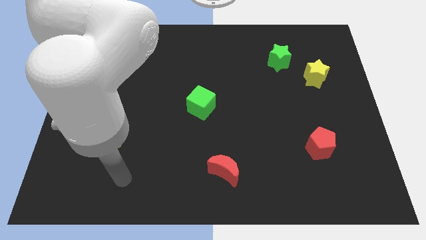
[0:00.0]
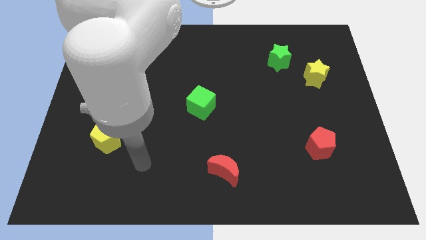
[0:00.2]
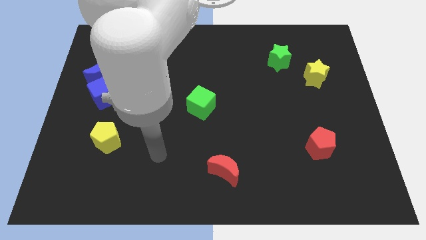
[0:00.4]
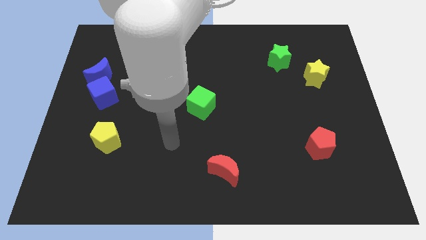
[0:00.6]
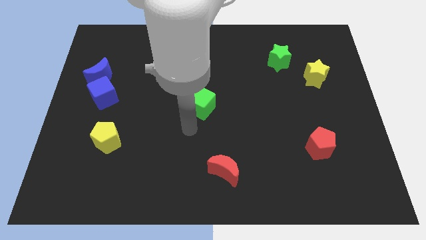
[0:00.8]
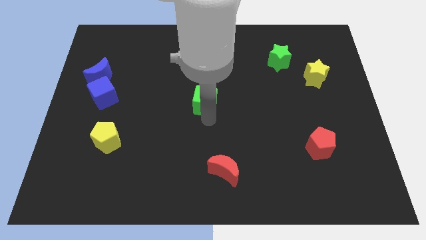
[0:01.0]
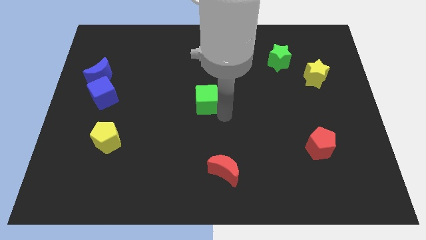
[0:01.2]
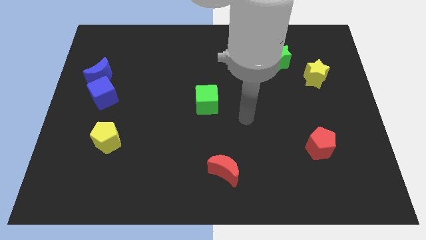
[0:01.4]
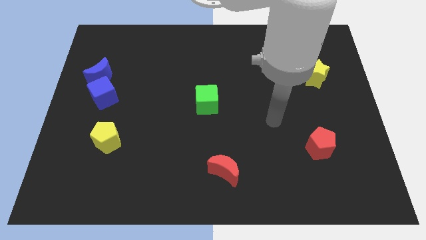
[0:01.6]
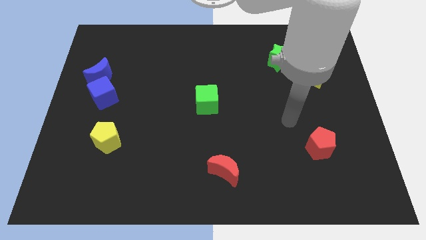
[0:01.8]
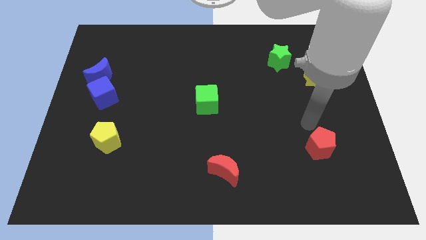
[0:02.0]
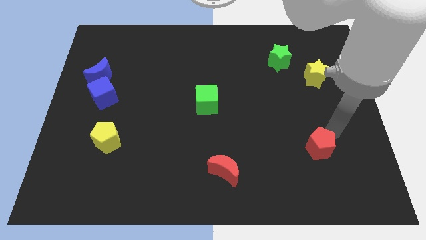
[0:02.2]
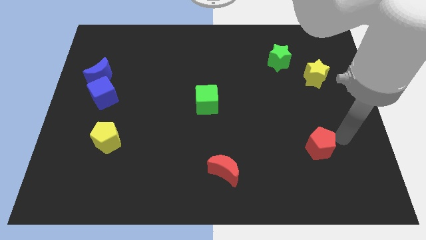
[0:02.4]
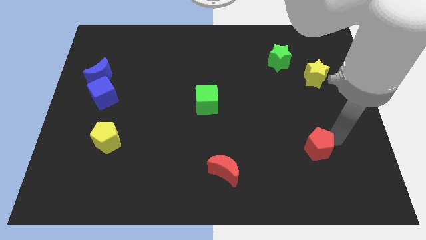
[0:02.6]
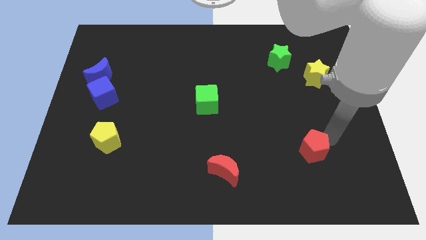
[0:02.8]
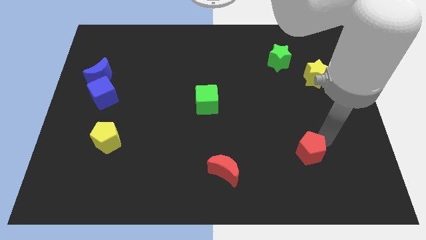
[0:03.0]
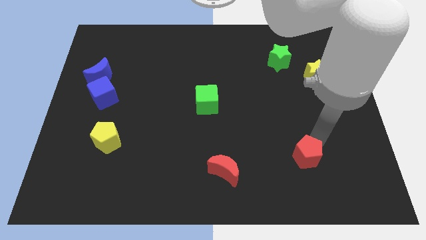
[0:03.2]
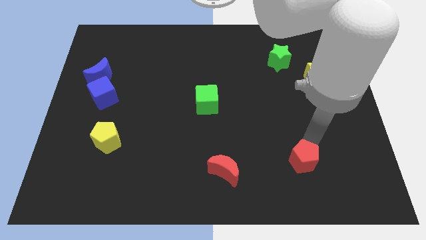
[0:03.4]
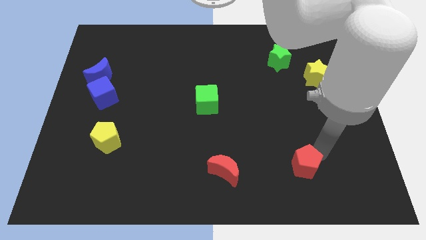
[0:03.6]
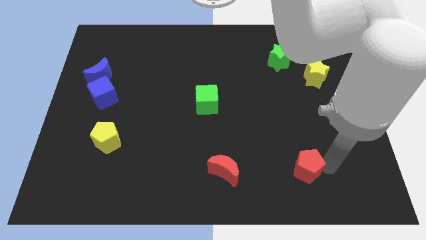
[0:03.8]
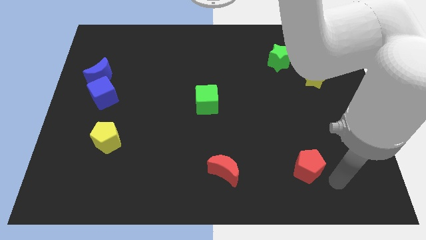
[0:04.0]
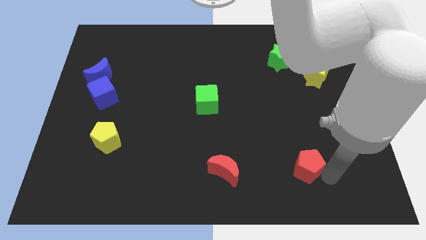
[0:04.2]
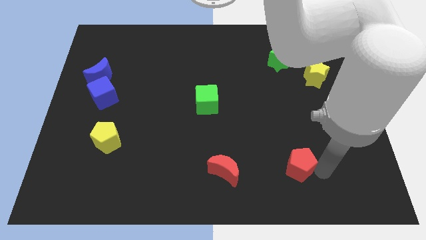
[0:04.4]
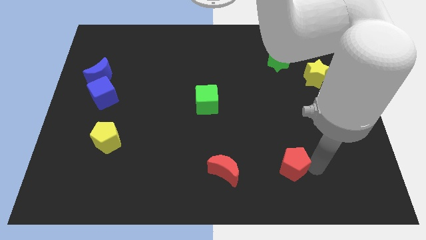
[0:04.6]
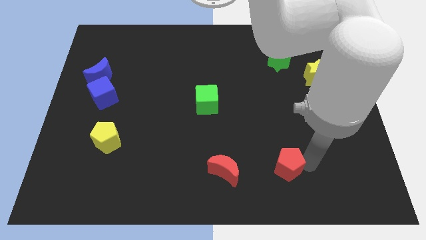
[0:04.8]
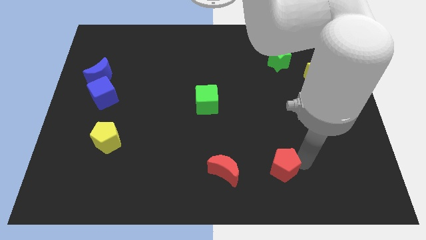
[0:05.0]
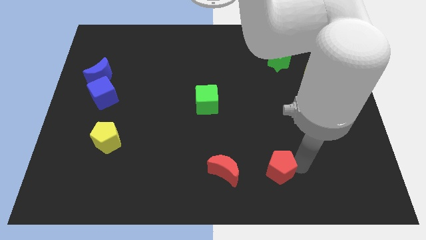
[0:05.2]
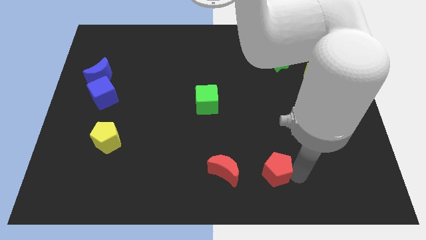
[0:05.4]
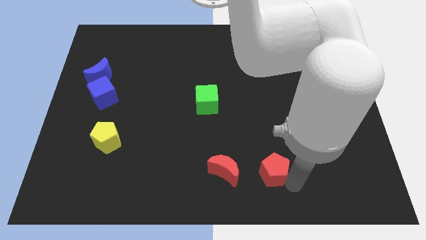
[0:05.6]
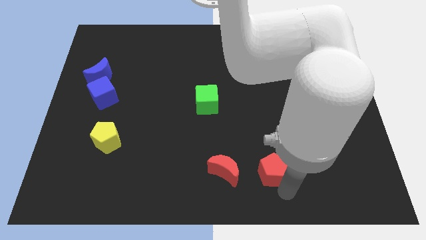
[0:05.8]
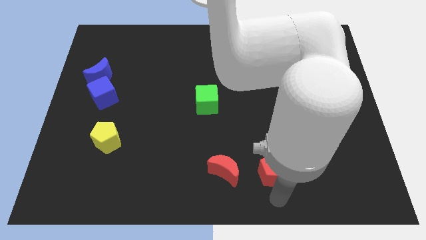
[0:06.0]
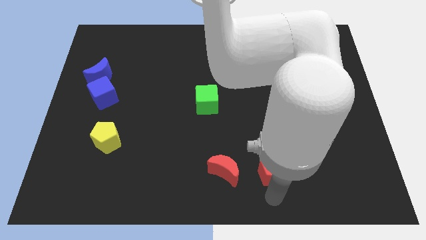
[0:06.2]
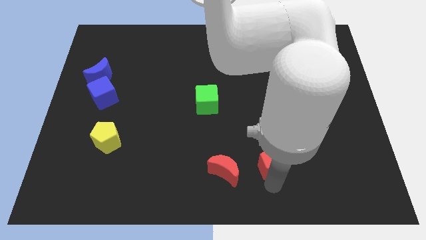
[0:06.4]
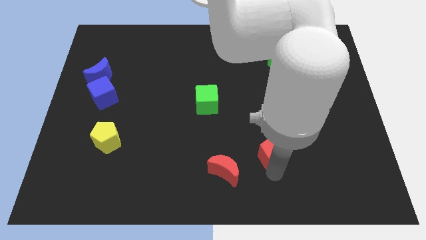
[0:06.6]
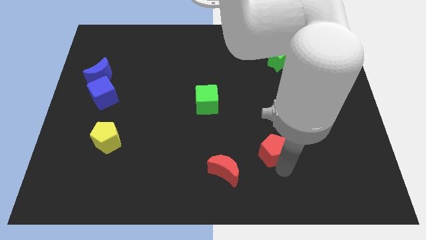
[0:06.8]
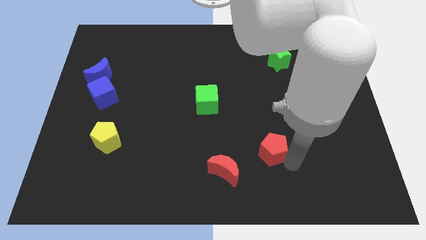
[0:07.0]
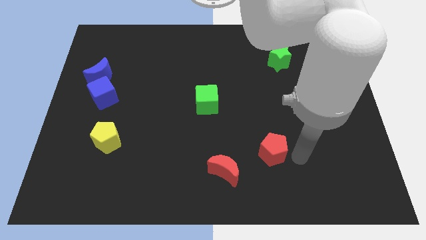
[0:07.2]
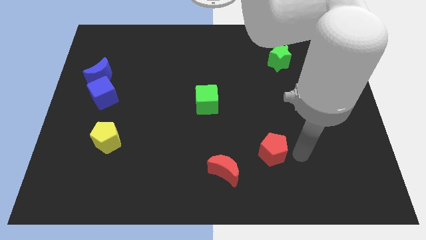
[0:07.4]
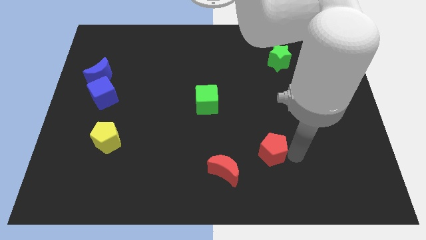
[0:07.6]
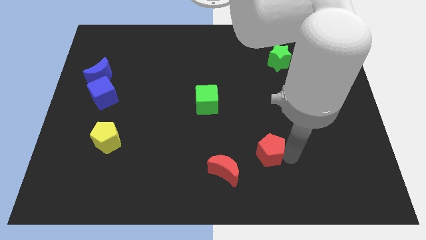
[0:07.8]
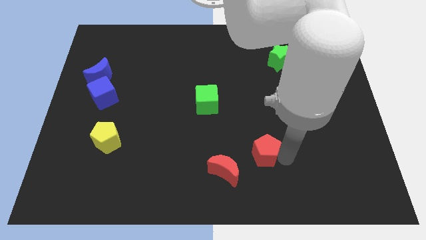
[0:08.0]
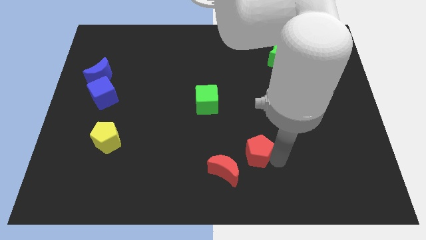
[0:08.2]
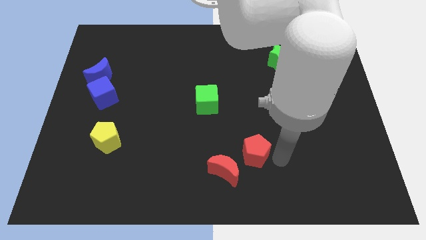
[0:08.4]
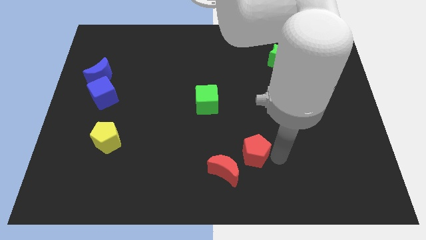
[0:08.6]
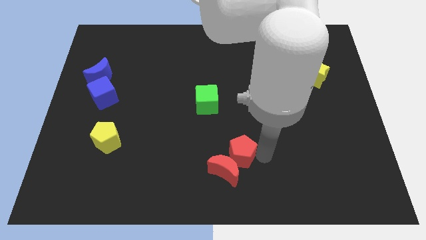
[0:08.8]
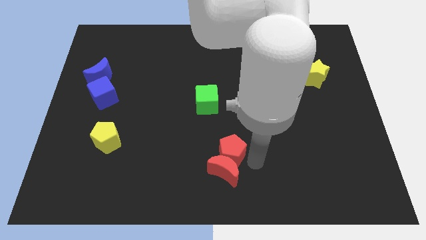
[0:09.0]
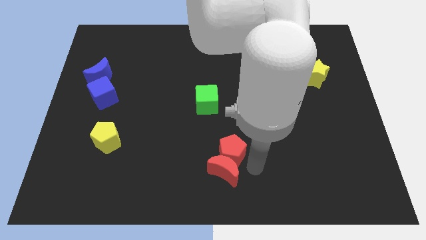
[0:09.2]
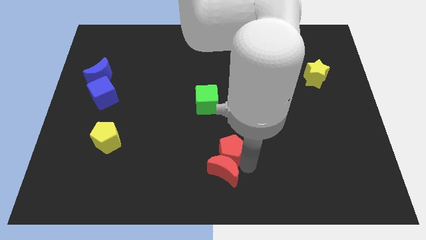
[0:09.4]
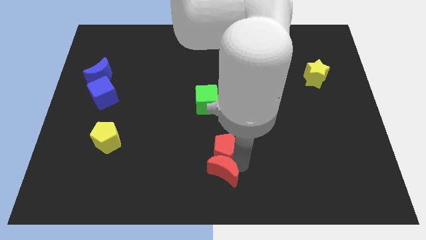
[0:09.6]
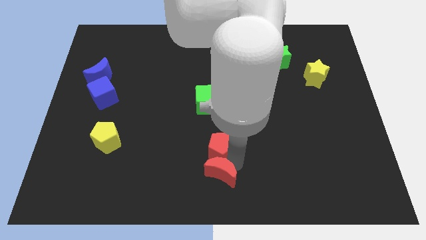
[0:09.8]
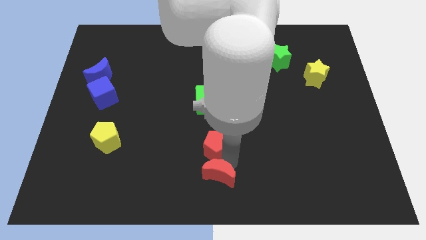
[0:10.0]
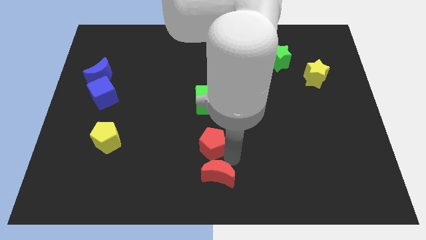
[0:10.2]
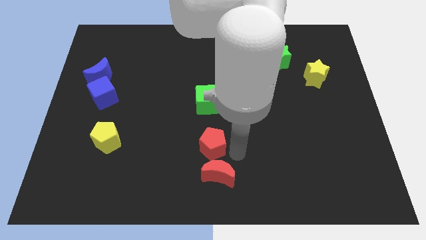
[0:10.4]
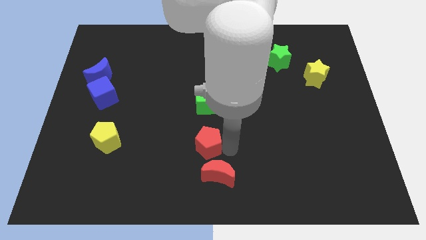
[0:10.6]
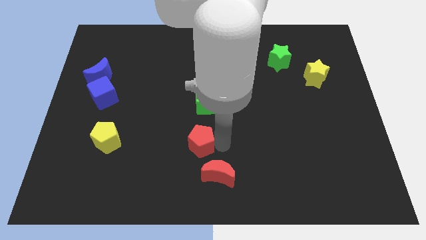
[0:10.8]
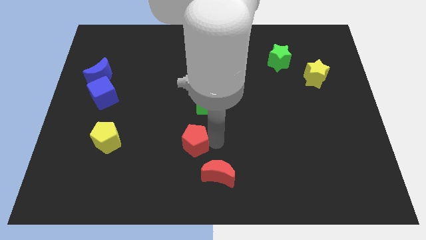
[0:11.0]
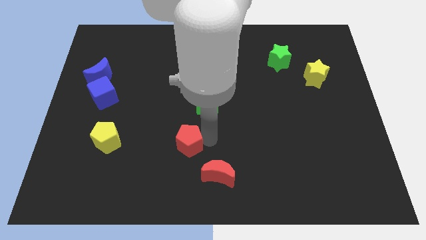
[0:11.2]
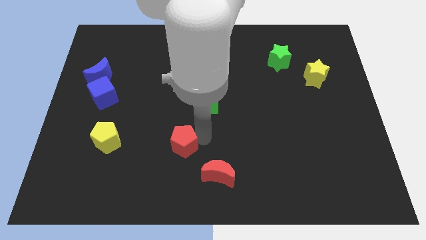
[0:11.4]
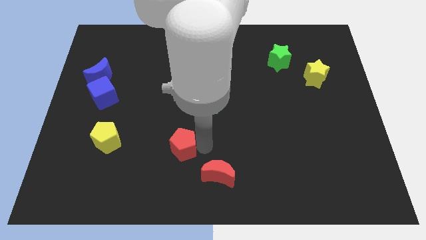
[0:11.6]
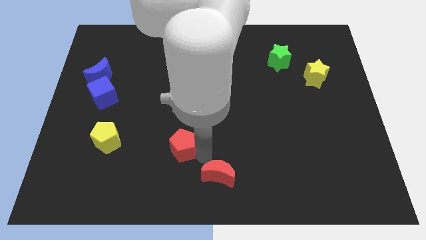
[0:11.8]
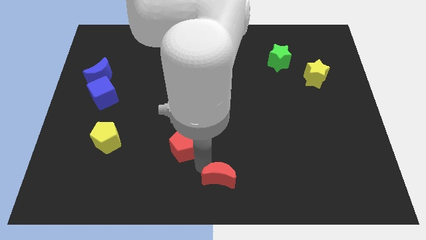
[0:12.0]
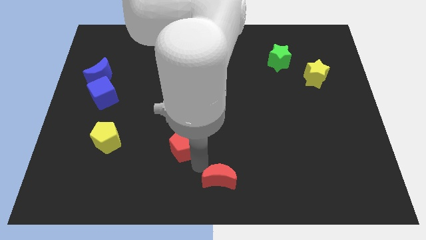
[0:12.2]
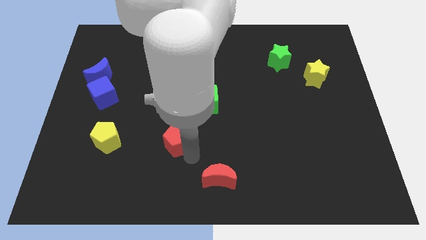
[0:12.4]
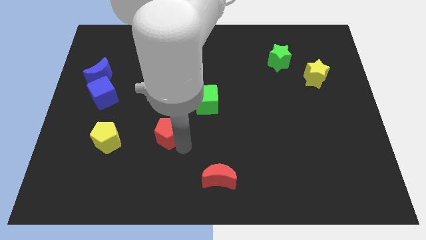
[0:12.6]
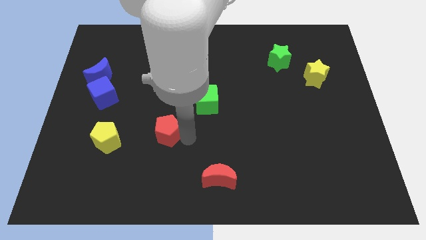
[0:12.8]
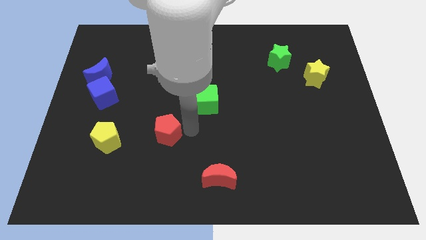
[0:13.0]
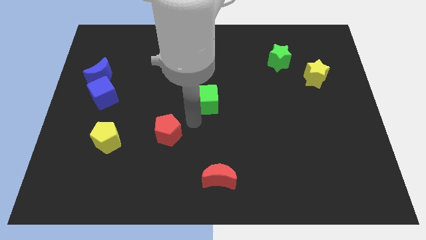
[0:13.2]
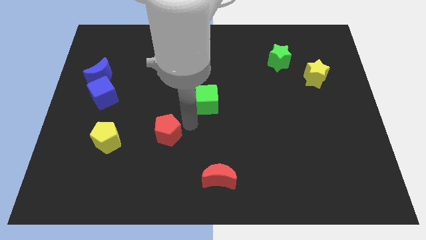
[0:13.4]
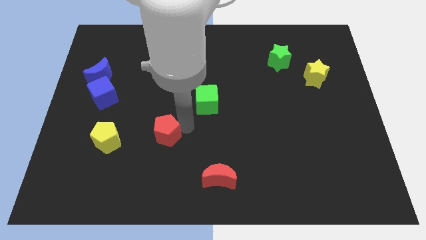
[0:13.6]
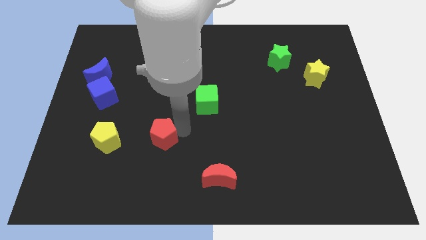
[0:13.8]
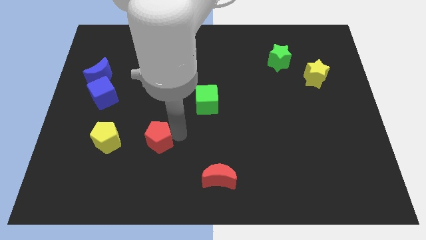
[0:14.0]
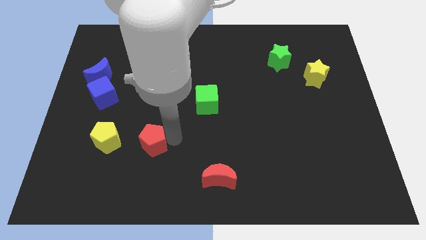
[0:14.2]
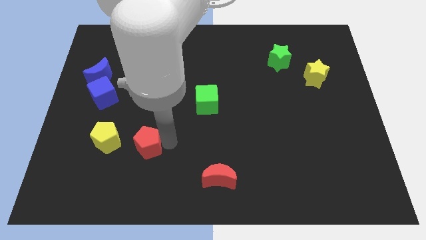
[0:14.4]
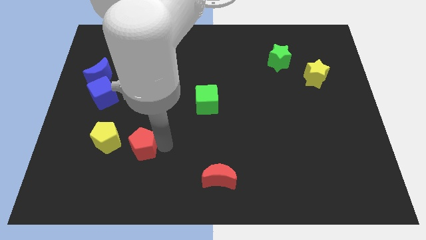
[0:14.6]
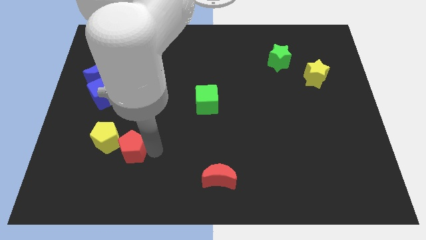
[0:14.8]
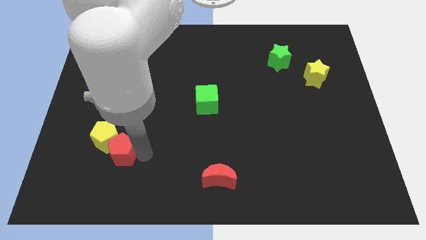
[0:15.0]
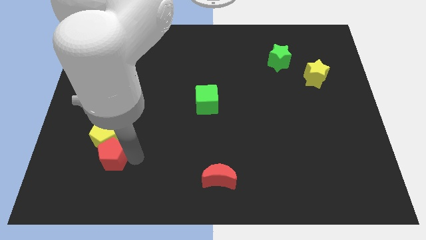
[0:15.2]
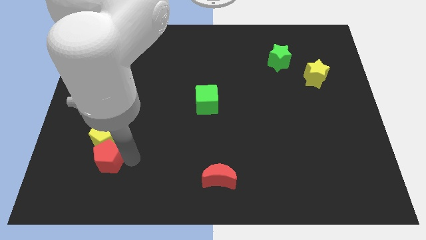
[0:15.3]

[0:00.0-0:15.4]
push the red pentagon to the bottom left of the yellow pentagon

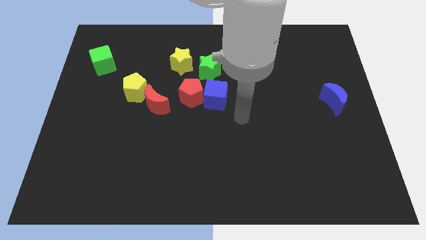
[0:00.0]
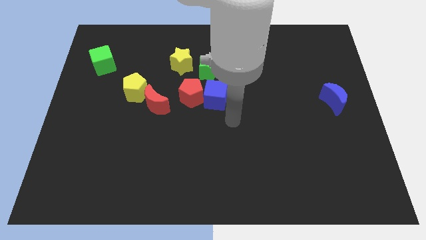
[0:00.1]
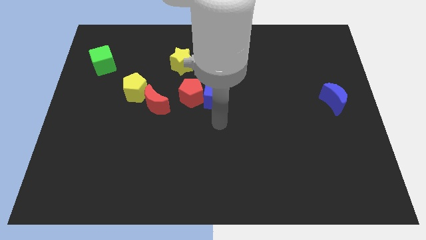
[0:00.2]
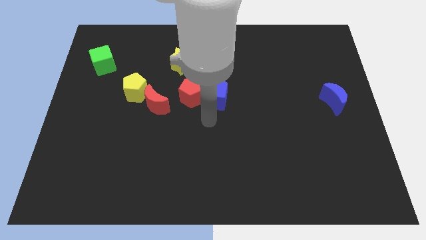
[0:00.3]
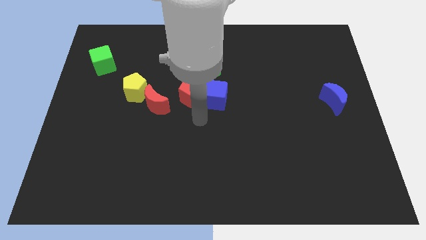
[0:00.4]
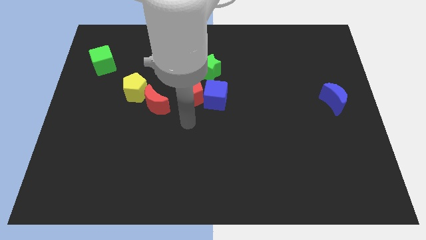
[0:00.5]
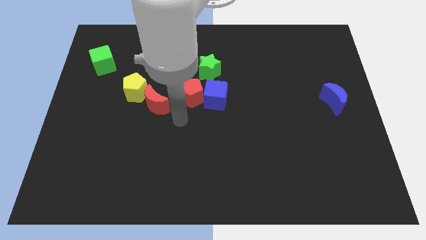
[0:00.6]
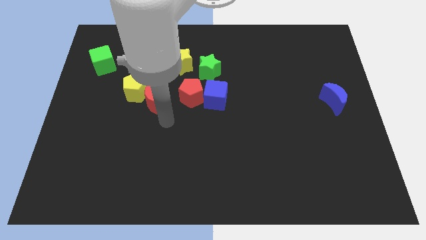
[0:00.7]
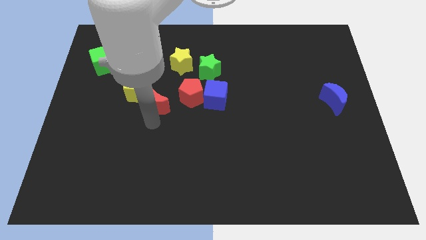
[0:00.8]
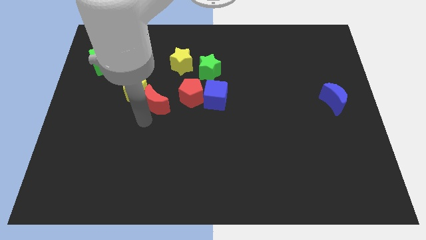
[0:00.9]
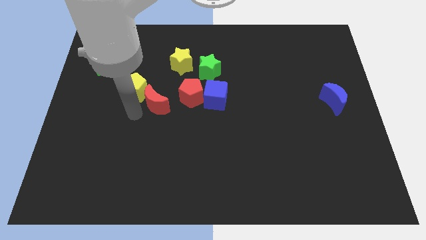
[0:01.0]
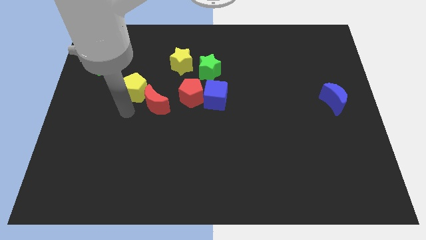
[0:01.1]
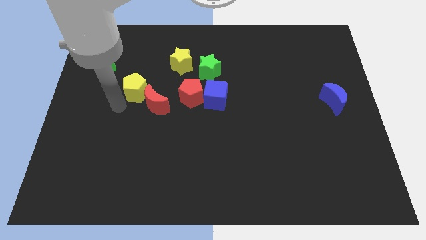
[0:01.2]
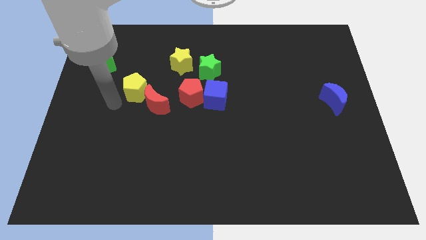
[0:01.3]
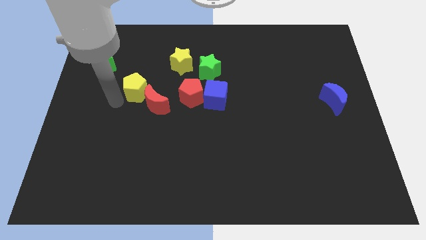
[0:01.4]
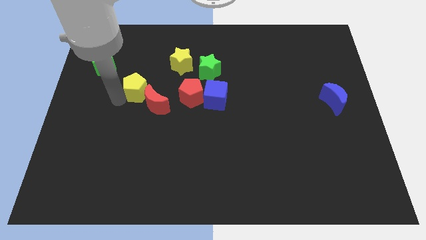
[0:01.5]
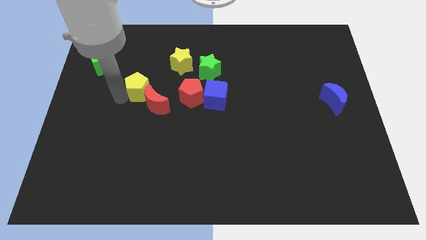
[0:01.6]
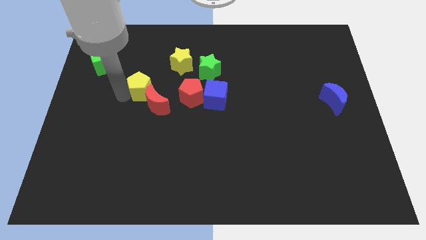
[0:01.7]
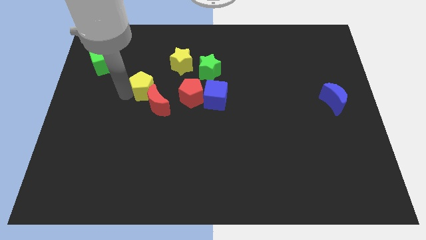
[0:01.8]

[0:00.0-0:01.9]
move the yellow pentagon to the bottom left of the yellow star
